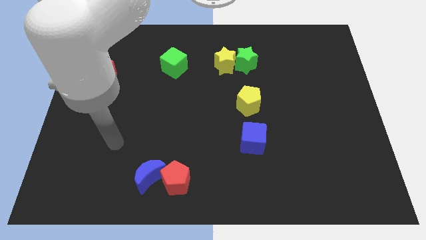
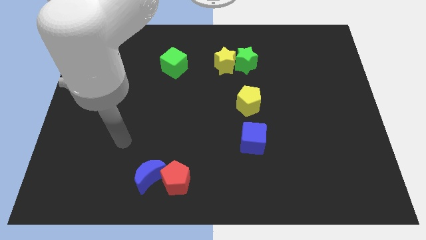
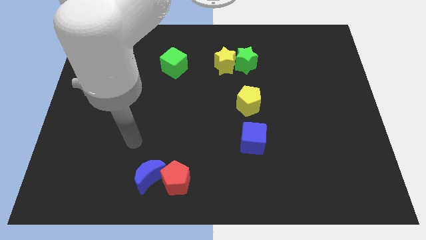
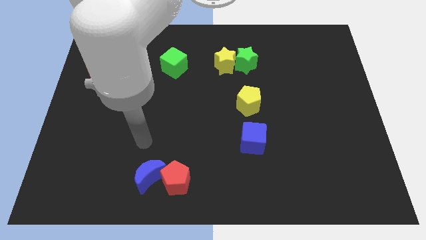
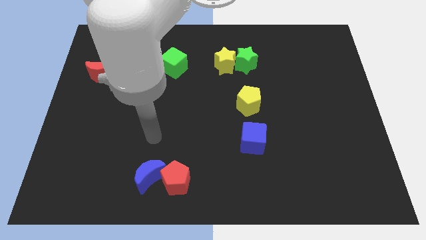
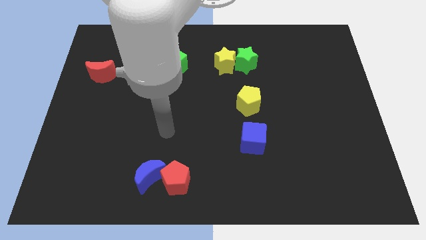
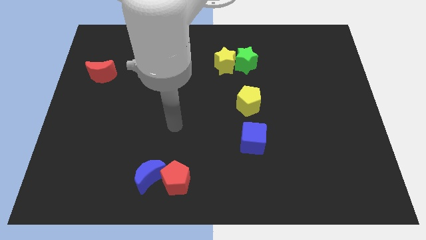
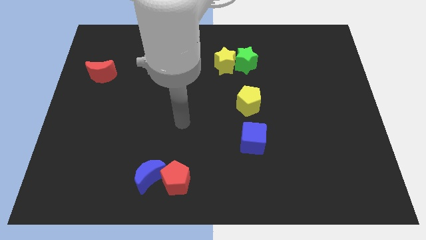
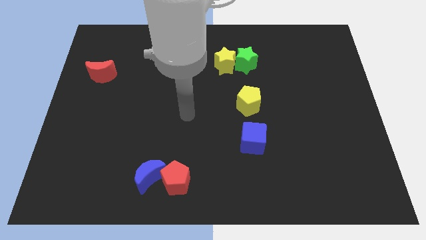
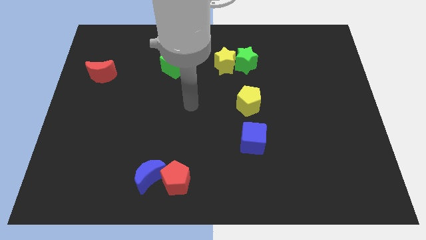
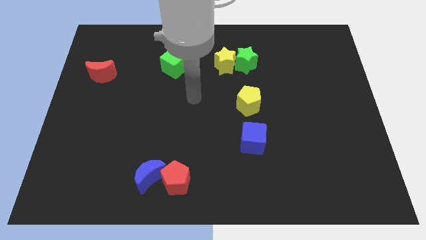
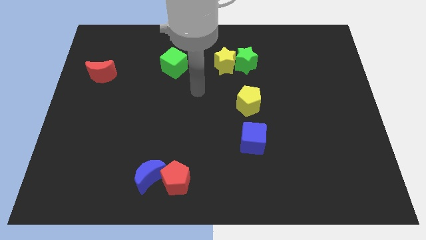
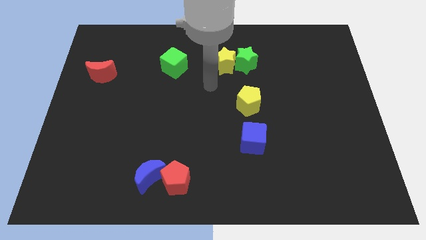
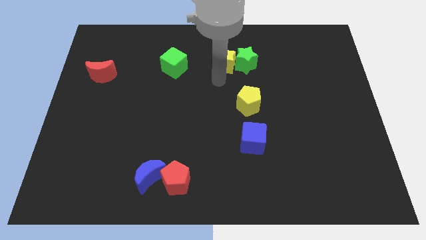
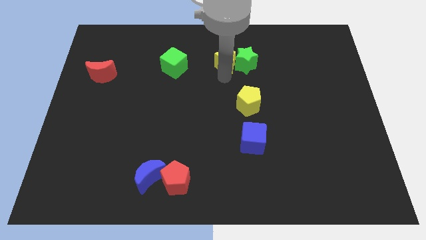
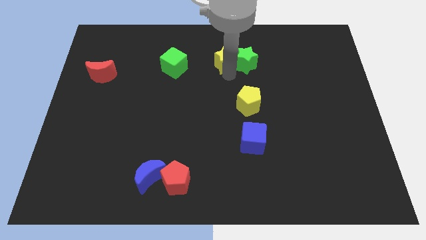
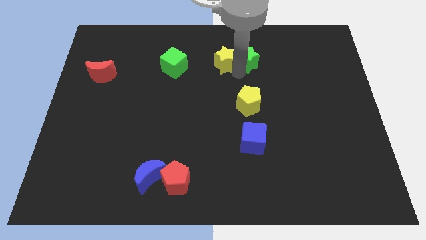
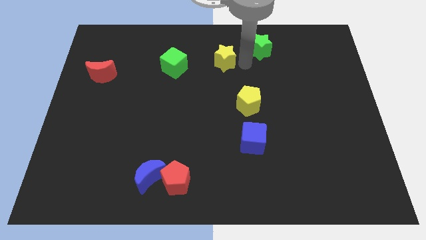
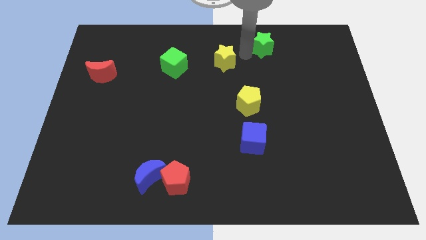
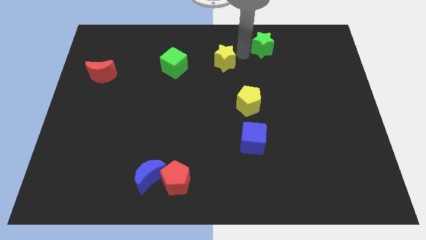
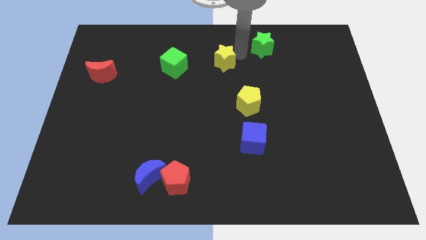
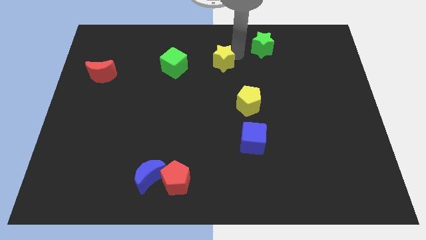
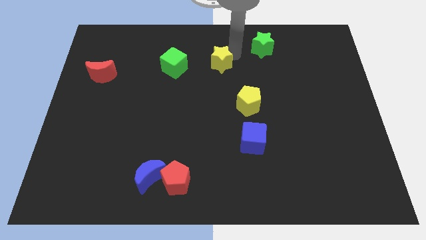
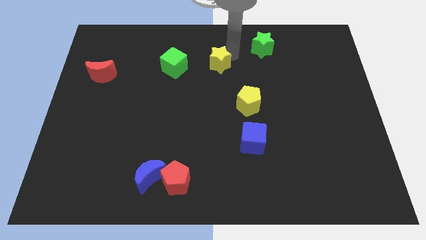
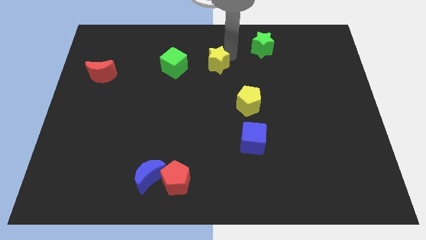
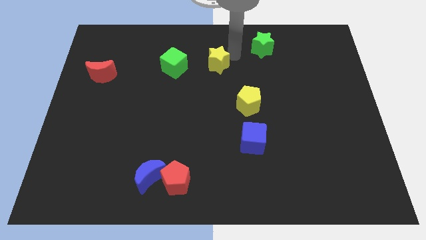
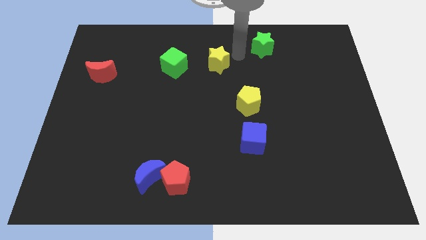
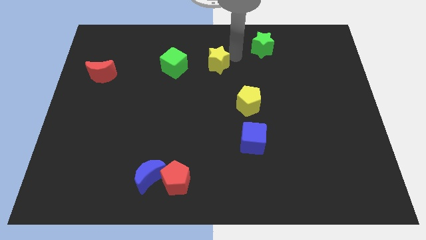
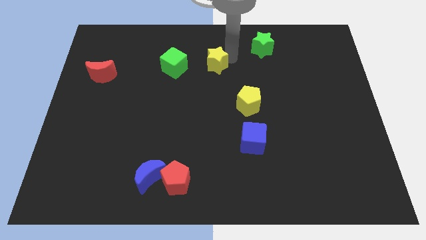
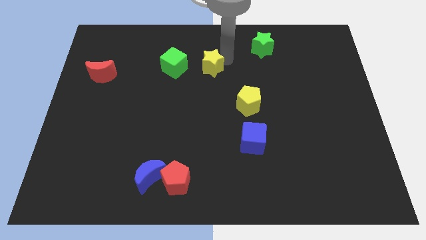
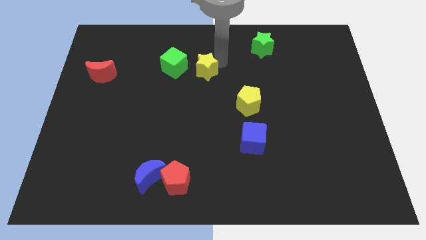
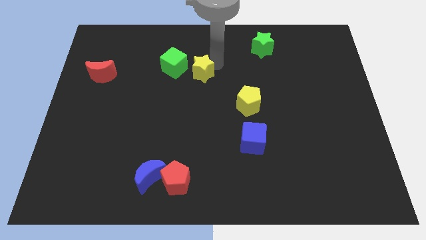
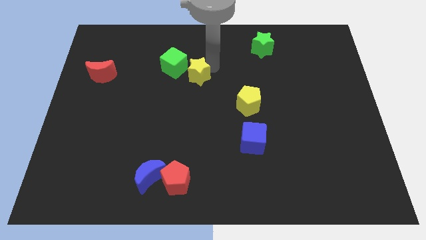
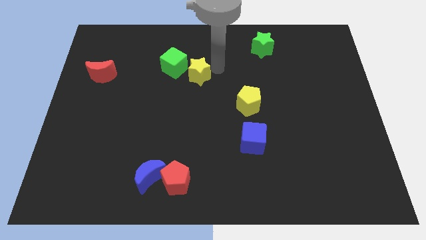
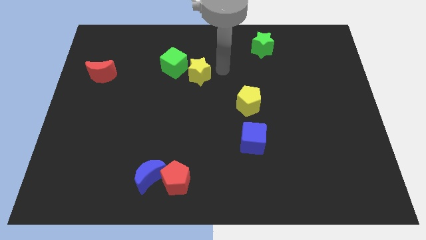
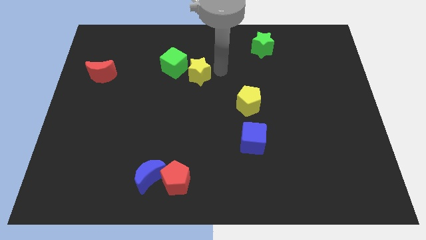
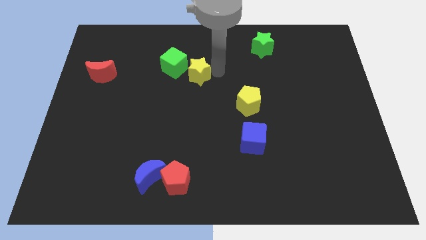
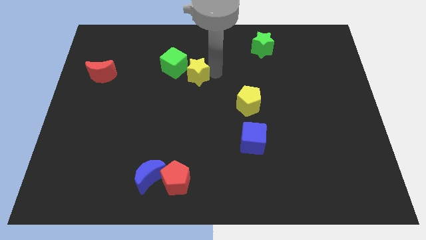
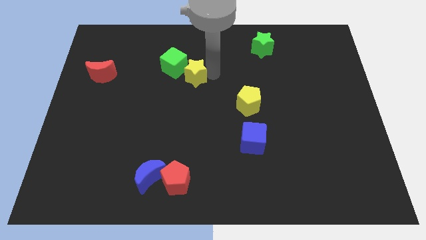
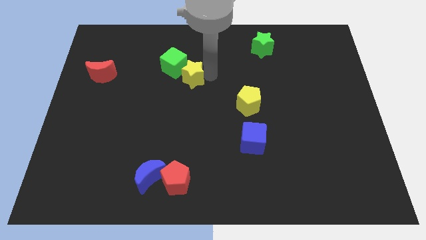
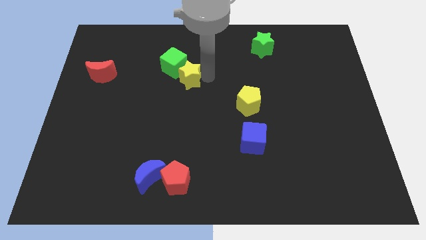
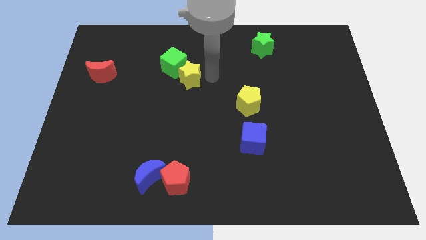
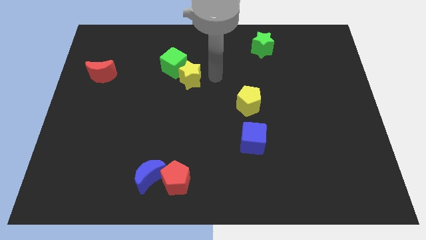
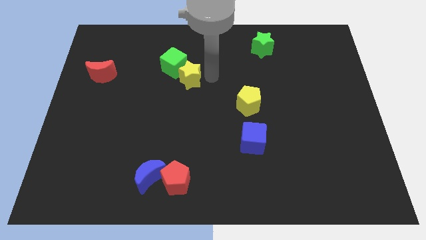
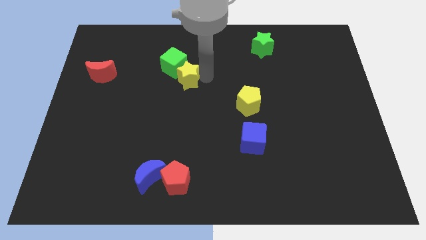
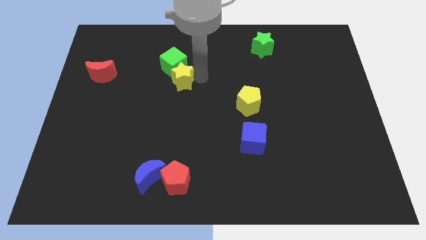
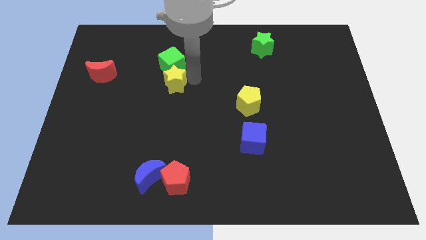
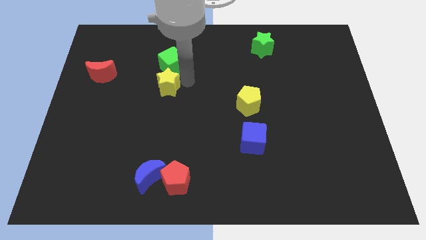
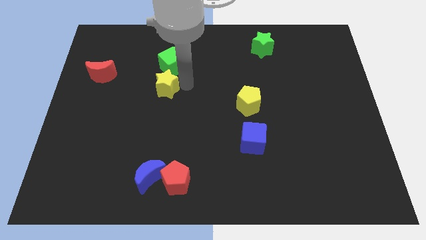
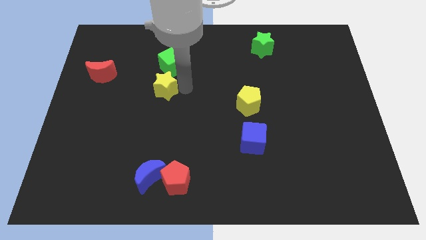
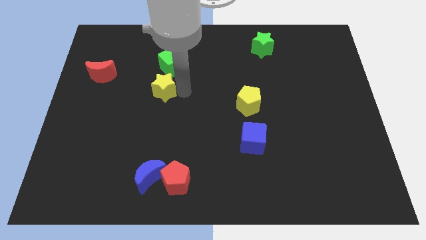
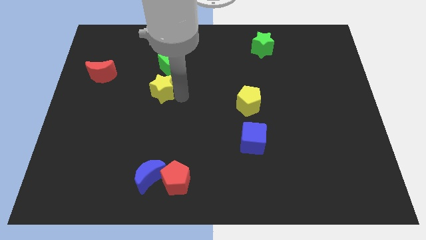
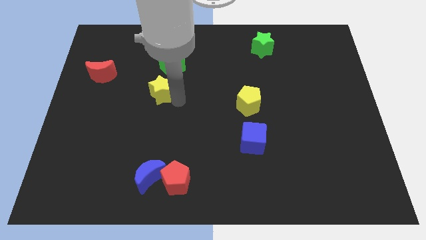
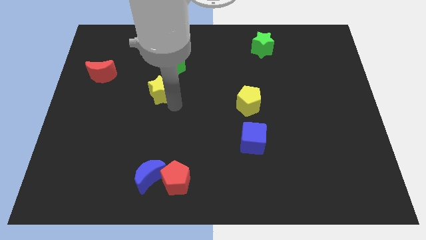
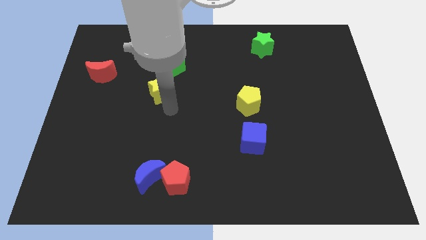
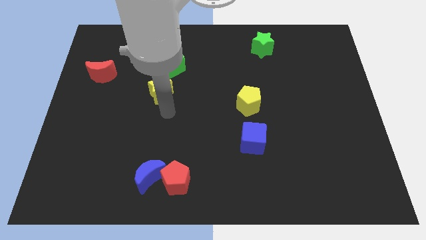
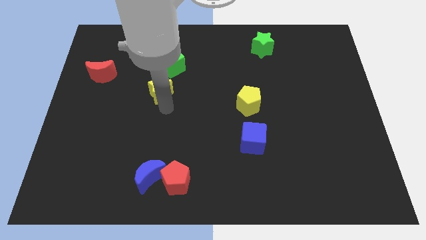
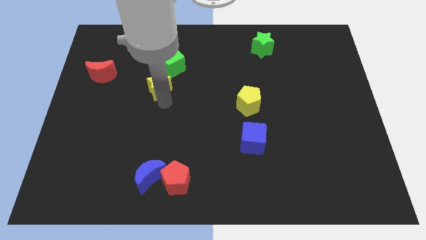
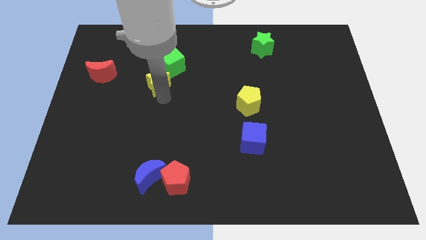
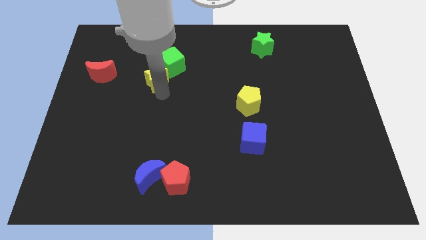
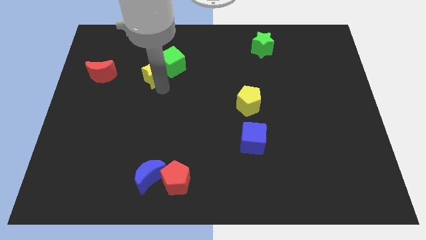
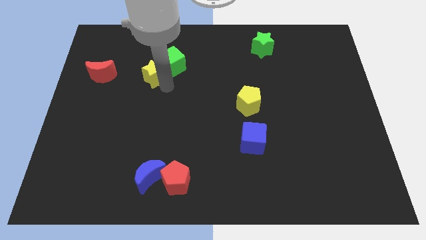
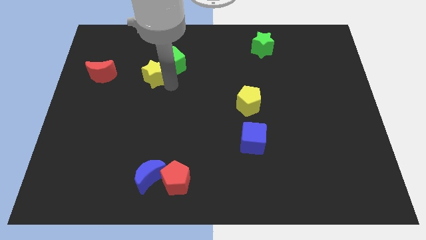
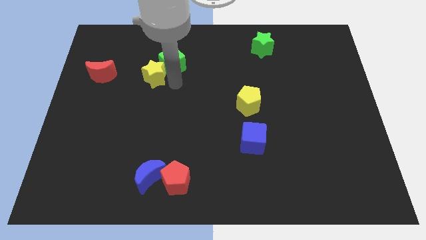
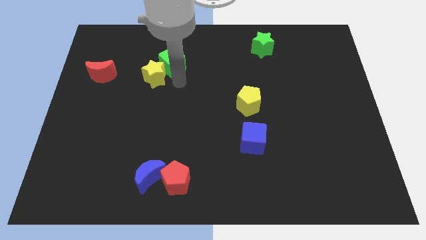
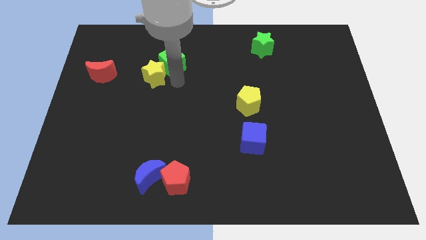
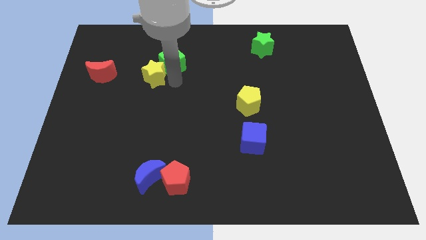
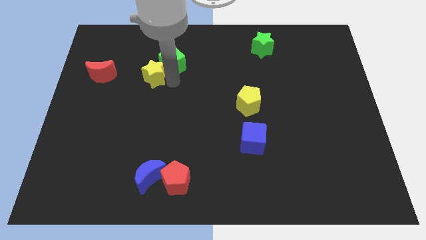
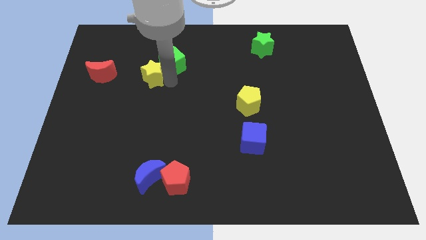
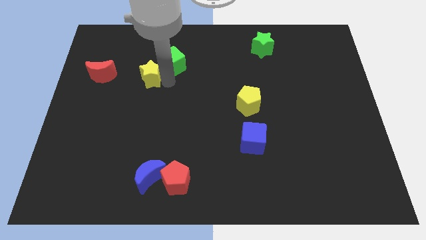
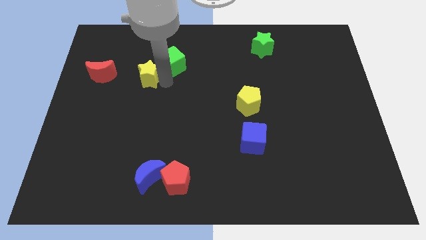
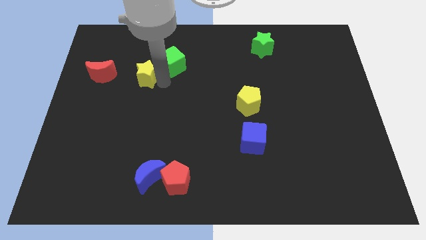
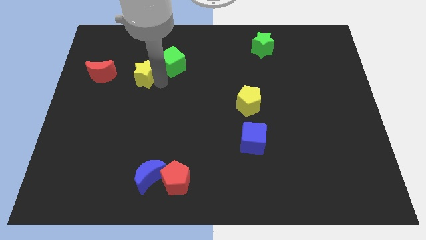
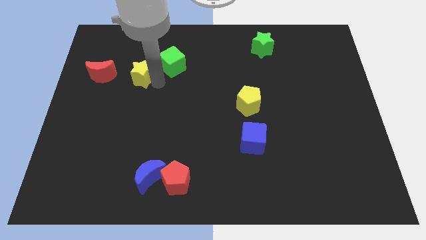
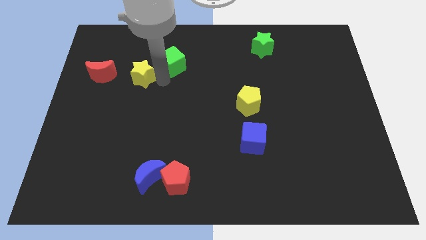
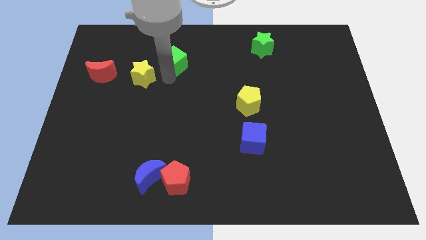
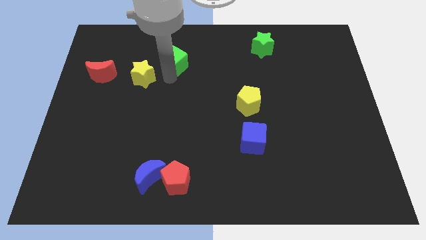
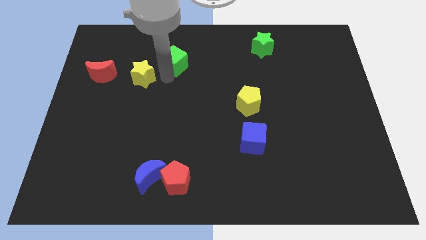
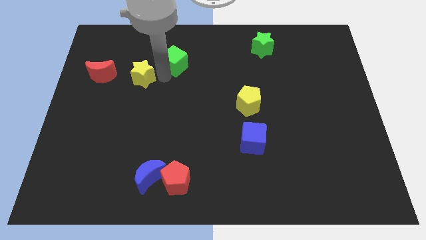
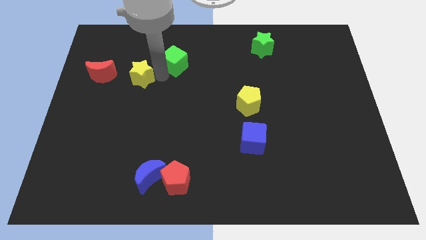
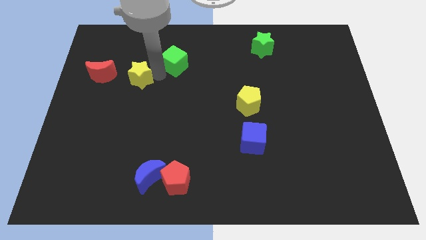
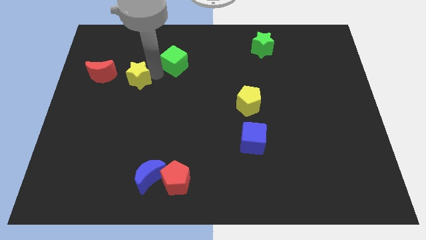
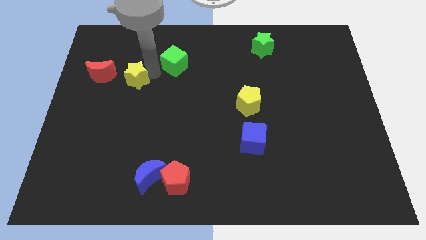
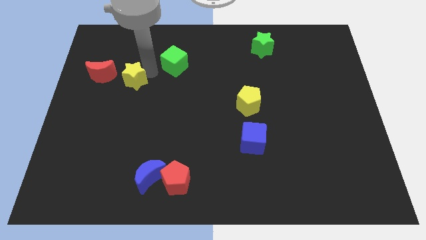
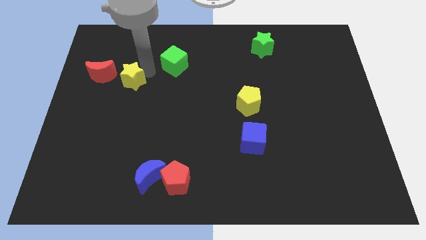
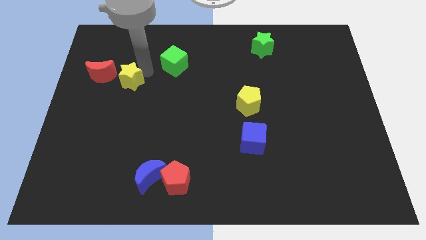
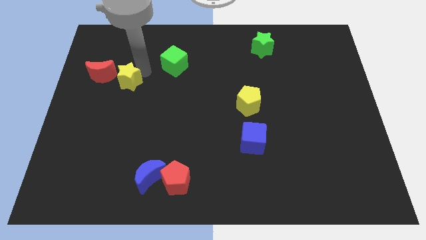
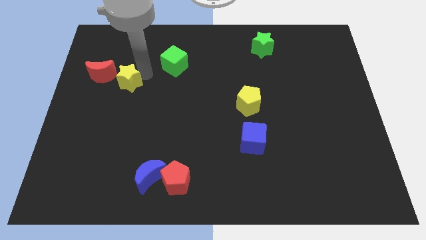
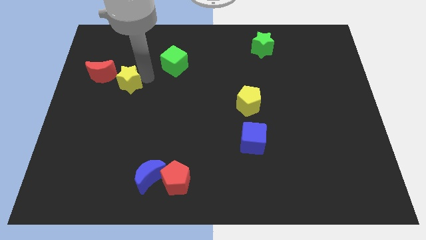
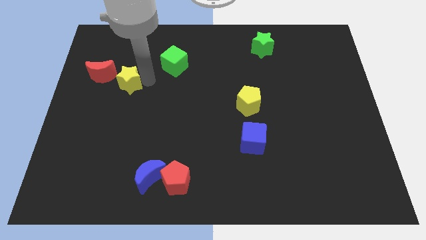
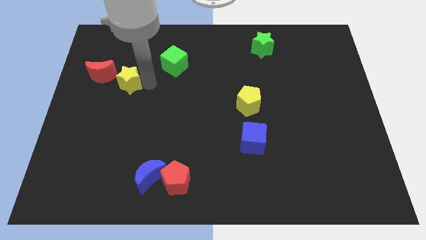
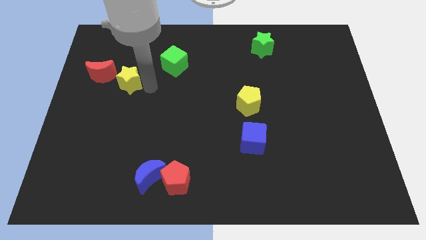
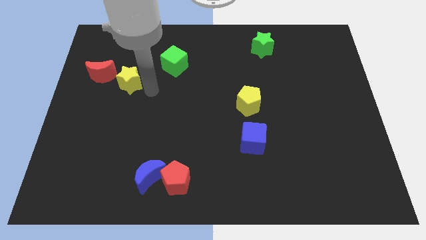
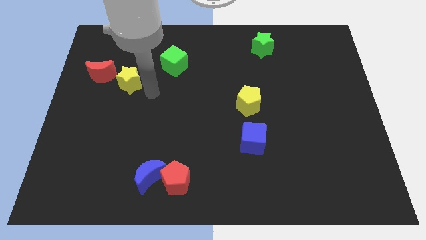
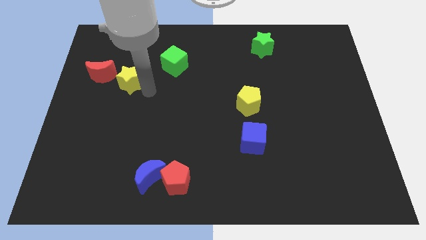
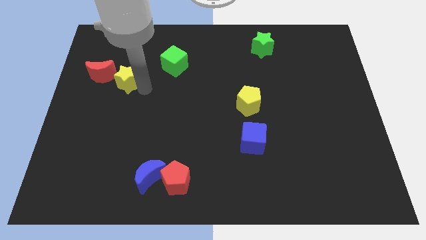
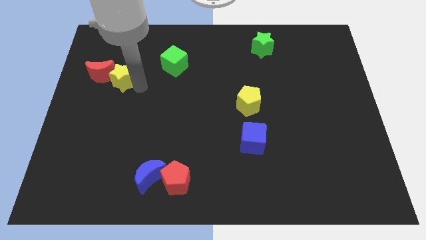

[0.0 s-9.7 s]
put the yellow star to the red moon
